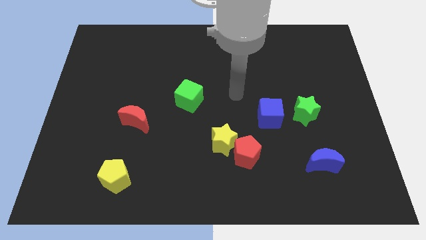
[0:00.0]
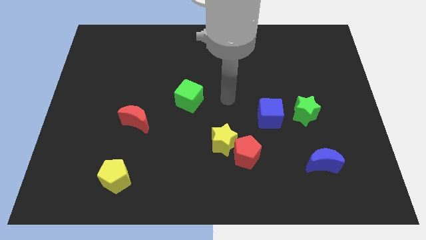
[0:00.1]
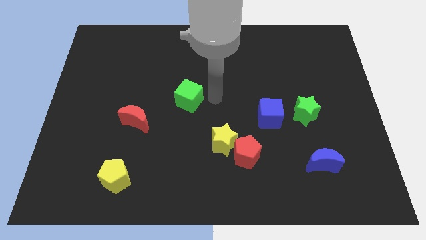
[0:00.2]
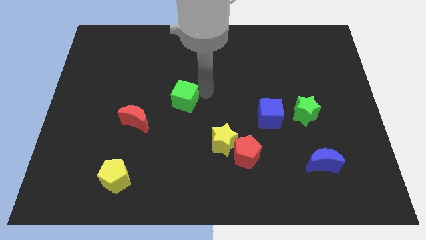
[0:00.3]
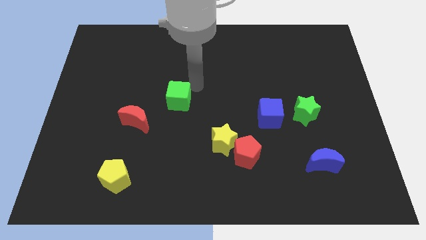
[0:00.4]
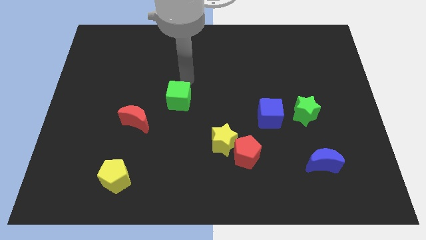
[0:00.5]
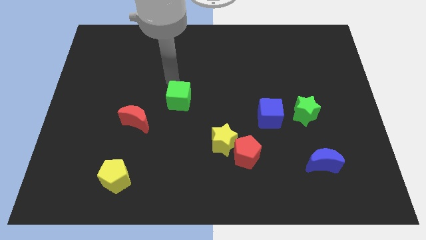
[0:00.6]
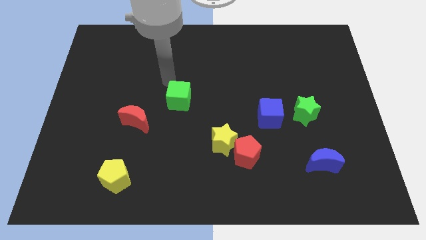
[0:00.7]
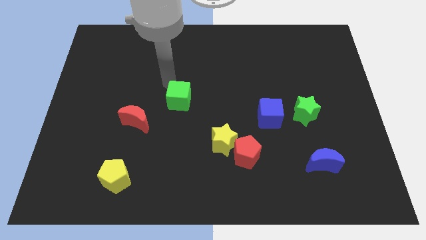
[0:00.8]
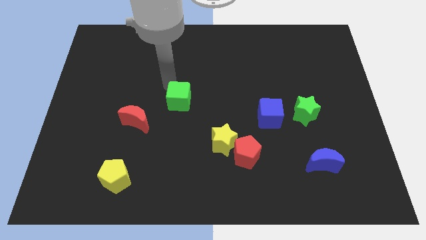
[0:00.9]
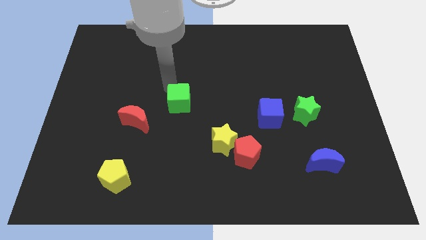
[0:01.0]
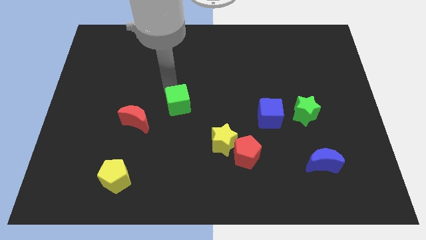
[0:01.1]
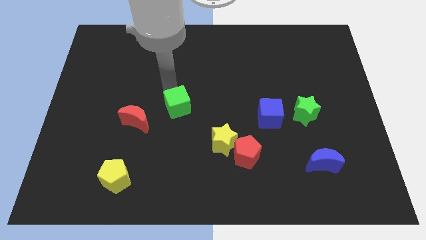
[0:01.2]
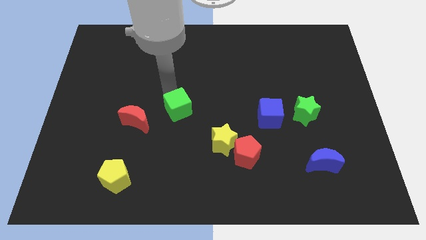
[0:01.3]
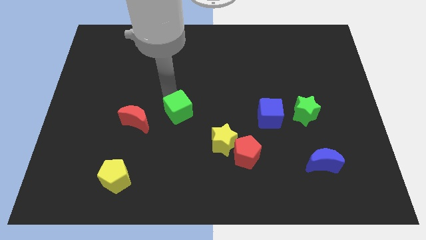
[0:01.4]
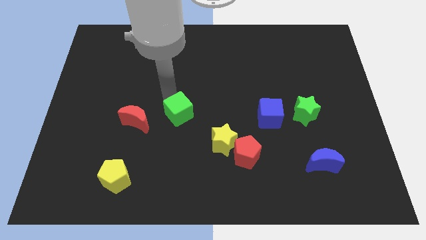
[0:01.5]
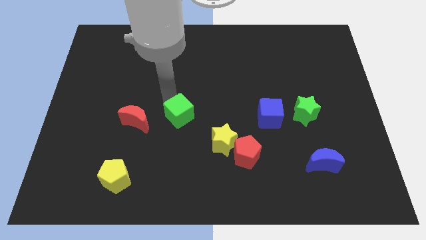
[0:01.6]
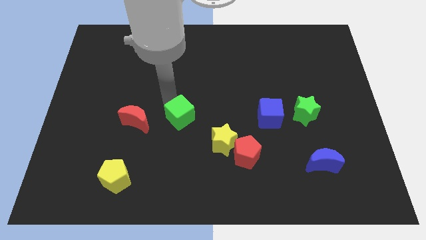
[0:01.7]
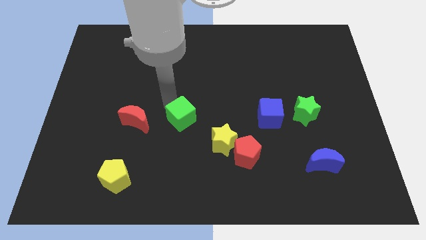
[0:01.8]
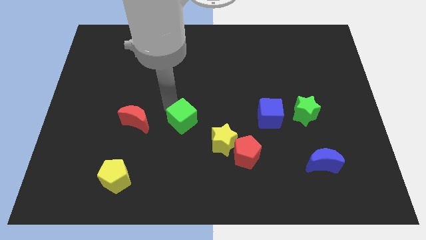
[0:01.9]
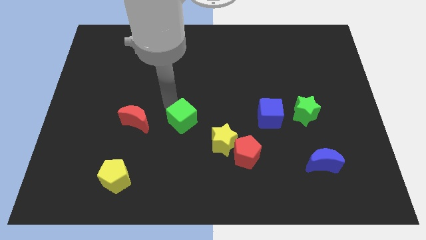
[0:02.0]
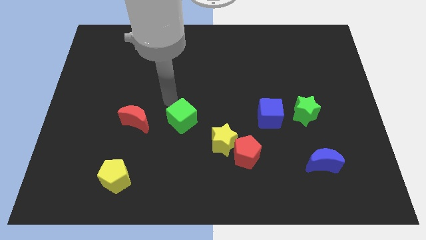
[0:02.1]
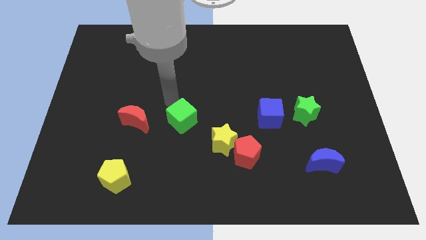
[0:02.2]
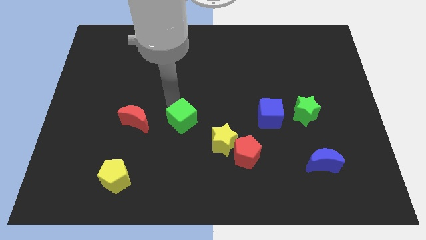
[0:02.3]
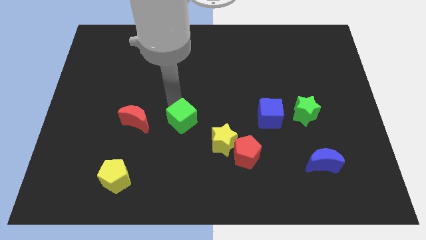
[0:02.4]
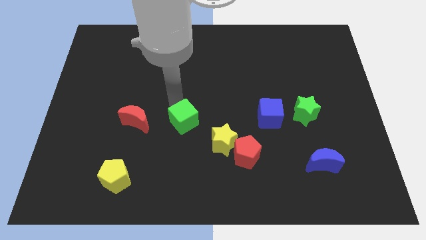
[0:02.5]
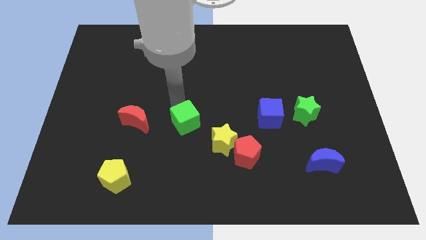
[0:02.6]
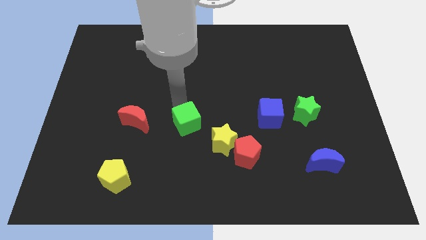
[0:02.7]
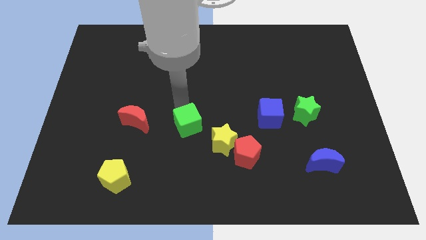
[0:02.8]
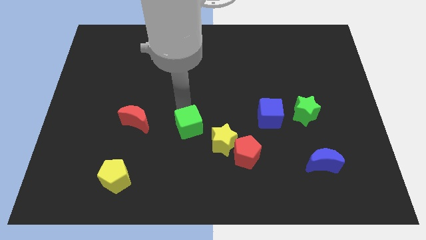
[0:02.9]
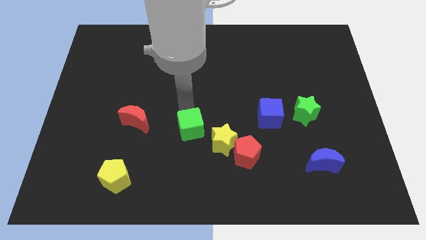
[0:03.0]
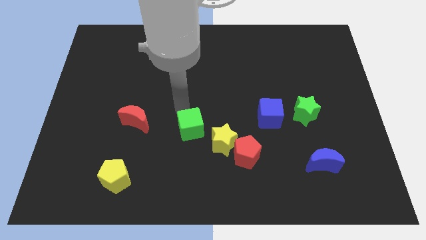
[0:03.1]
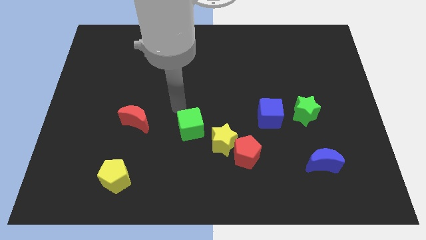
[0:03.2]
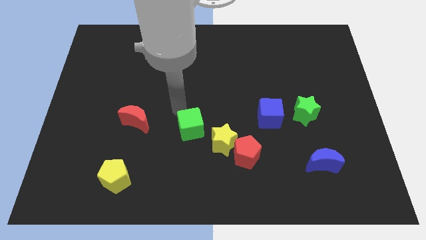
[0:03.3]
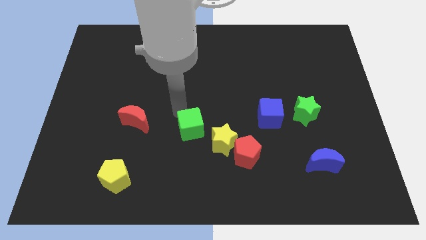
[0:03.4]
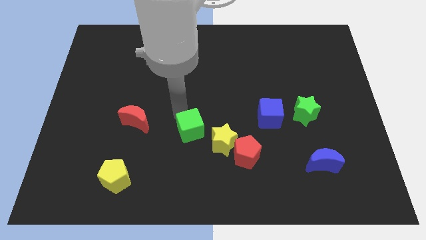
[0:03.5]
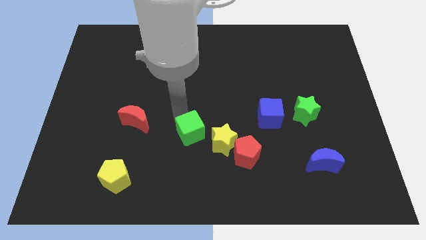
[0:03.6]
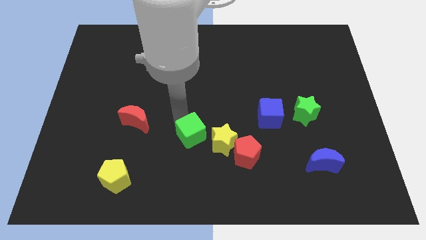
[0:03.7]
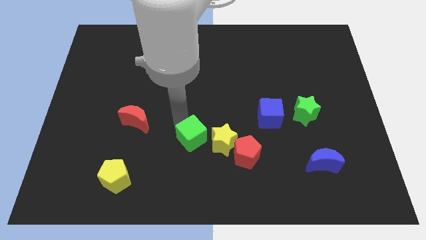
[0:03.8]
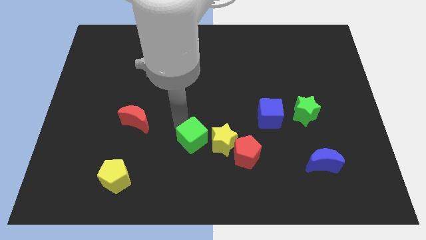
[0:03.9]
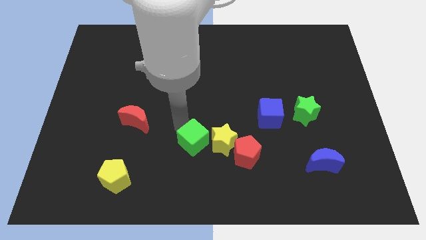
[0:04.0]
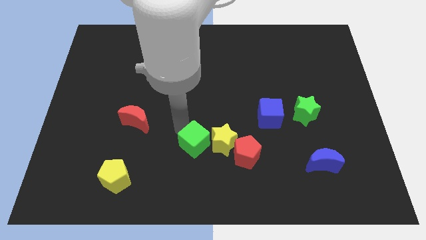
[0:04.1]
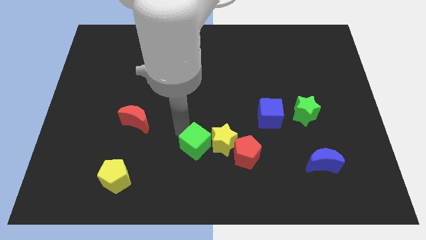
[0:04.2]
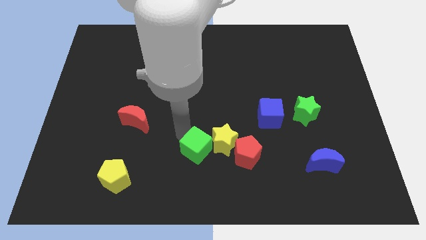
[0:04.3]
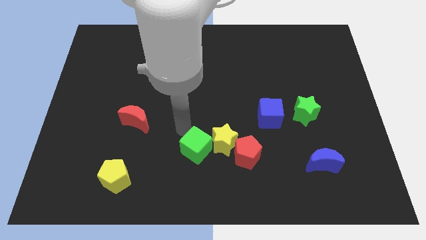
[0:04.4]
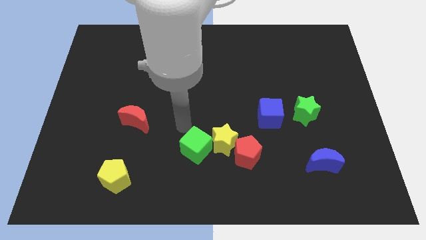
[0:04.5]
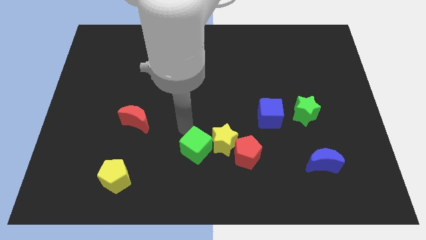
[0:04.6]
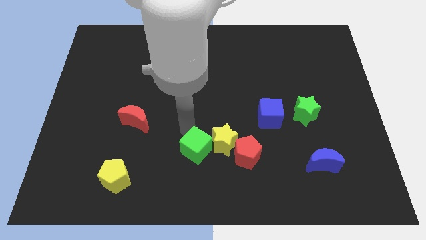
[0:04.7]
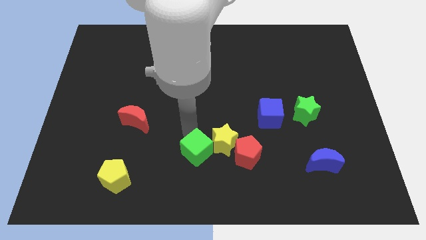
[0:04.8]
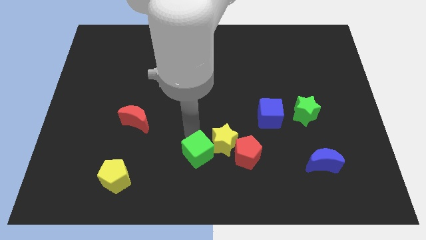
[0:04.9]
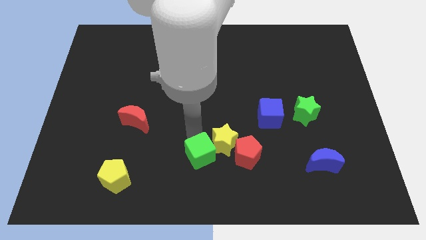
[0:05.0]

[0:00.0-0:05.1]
push the green cube to the bottom side
